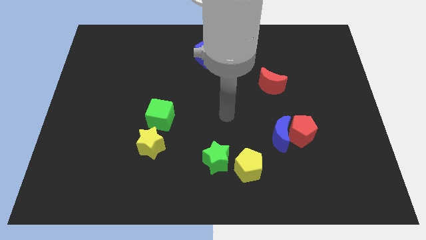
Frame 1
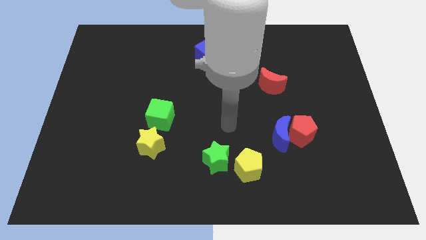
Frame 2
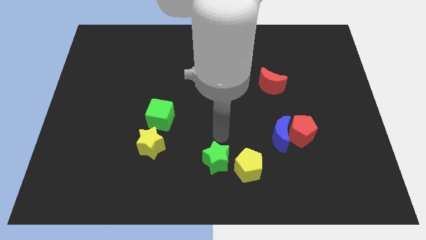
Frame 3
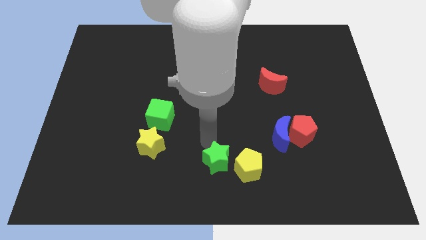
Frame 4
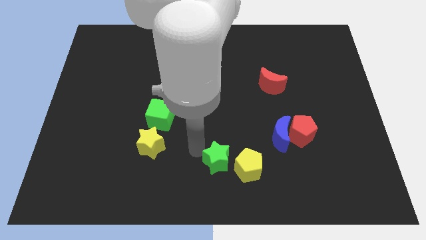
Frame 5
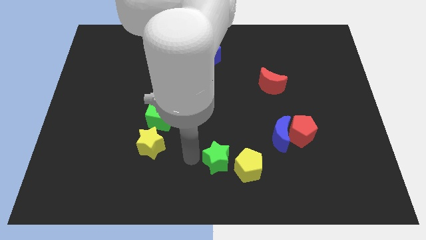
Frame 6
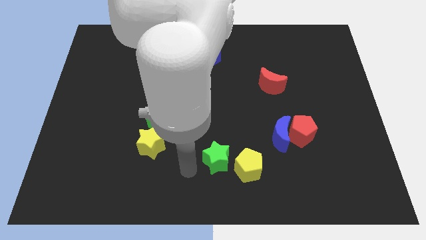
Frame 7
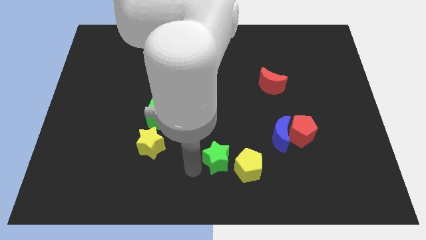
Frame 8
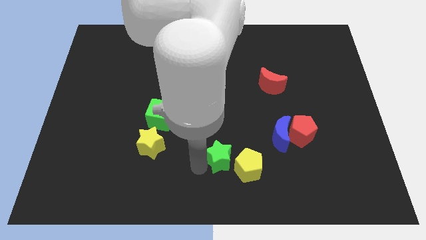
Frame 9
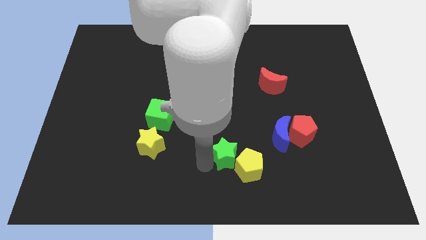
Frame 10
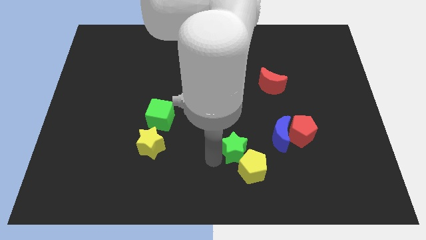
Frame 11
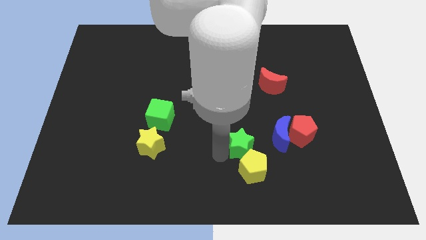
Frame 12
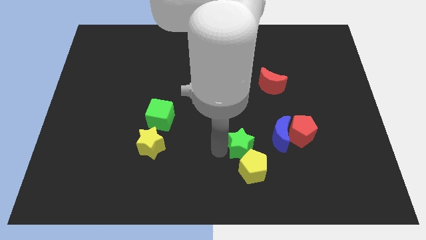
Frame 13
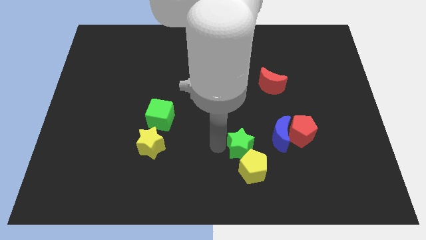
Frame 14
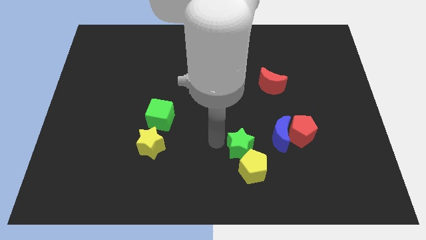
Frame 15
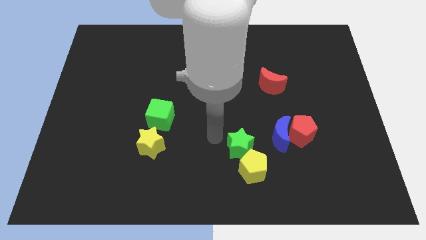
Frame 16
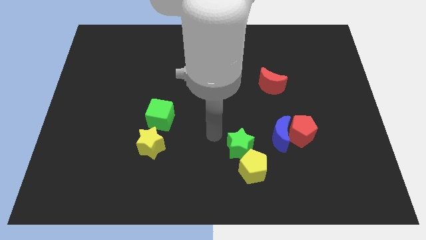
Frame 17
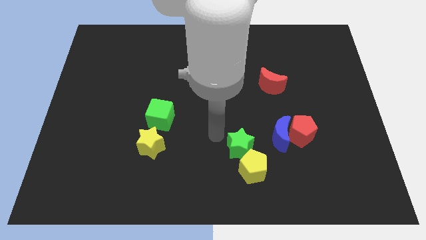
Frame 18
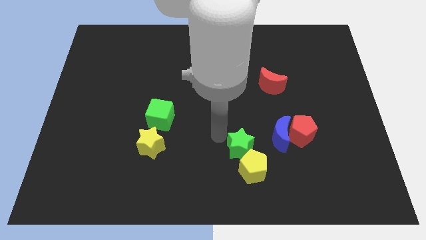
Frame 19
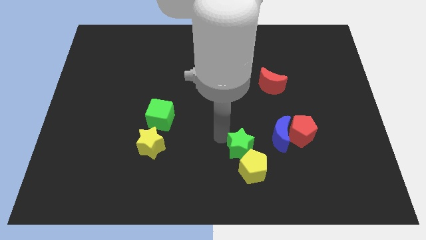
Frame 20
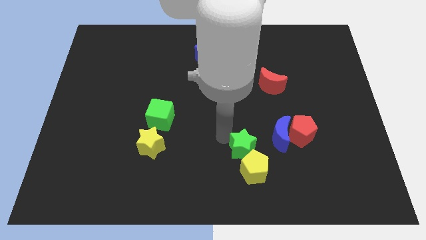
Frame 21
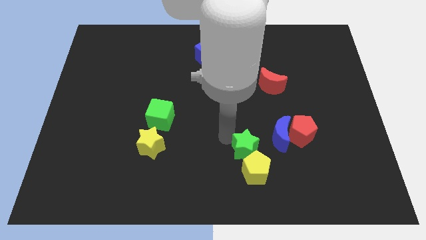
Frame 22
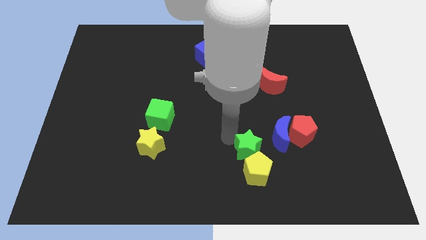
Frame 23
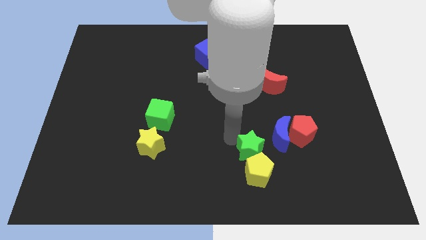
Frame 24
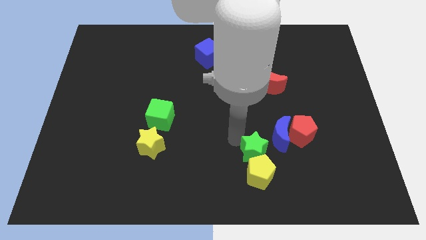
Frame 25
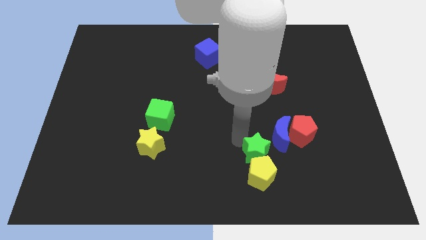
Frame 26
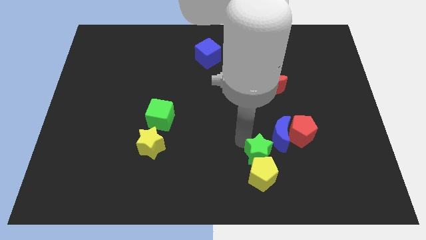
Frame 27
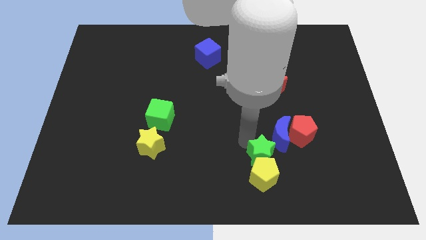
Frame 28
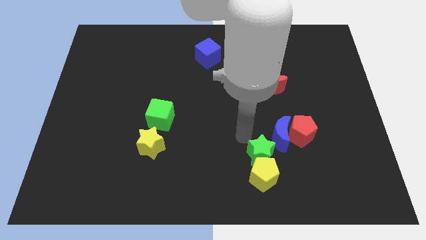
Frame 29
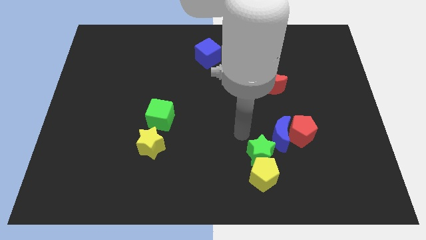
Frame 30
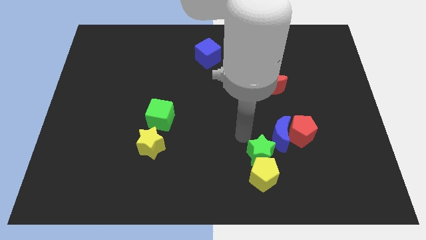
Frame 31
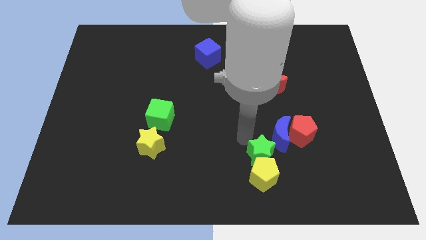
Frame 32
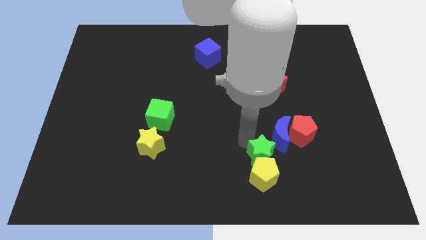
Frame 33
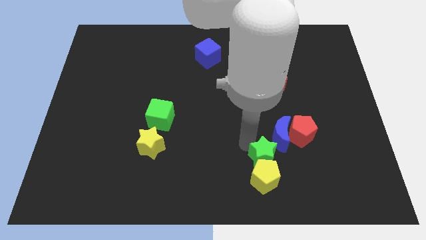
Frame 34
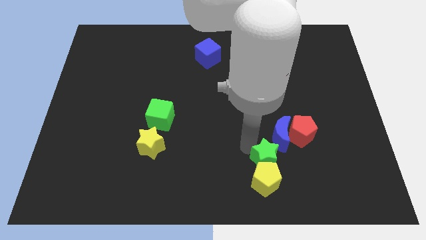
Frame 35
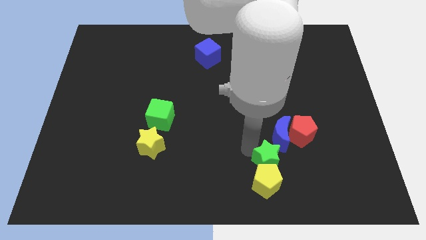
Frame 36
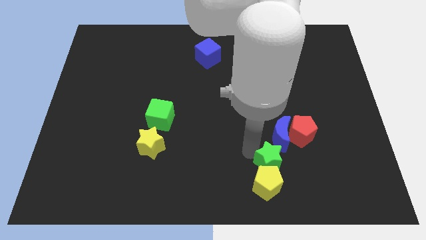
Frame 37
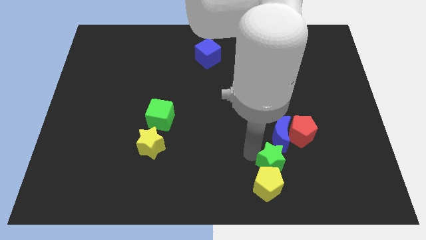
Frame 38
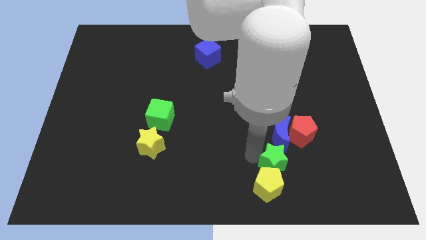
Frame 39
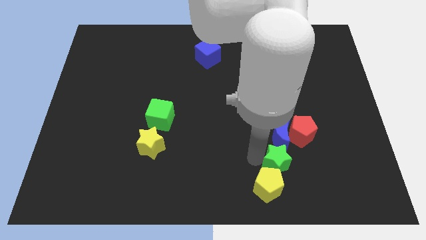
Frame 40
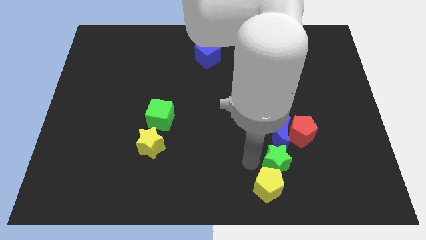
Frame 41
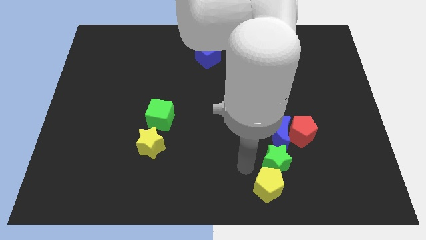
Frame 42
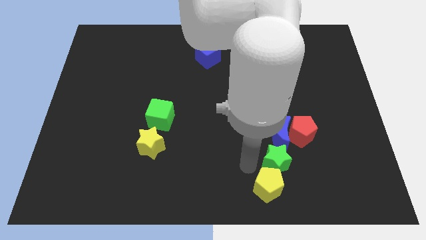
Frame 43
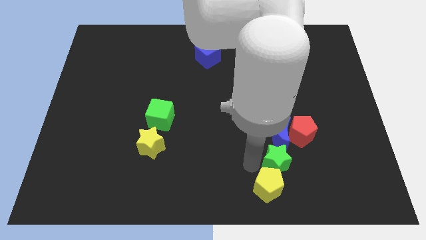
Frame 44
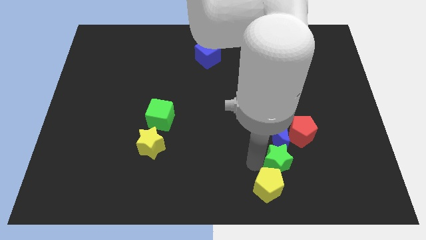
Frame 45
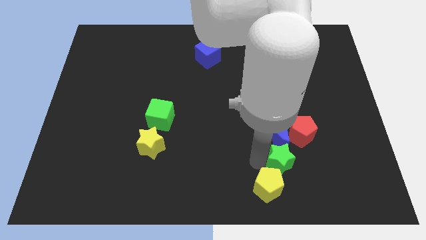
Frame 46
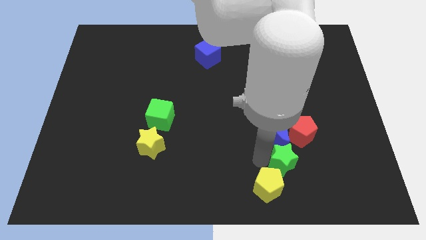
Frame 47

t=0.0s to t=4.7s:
slide the green star to the bottom right side of the blue moon

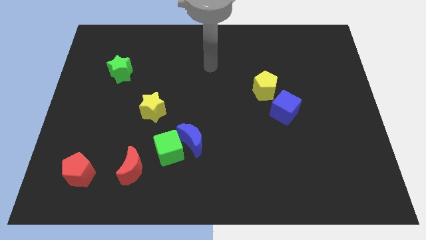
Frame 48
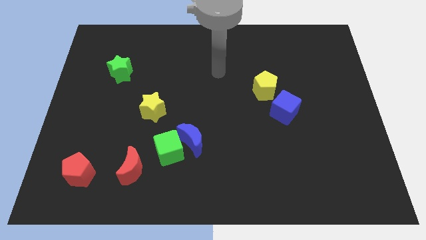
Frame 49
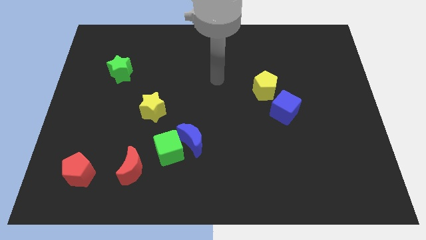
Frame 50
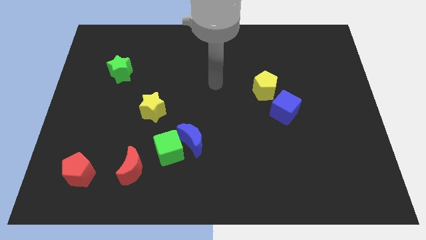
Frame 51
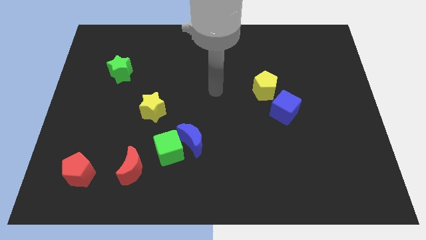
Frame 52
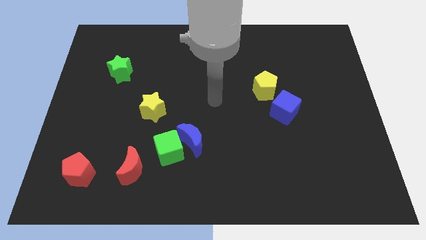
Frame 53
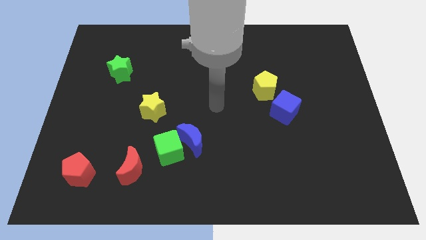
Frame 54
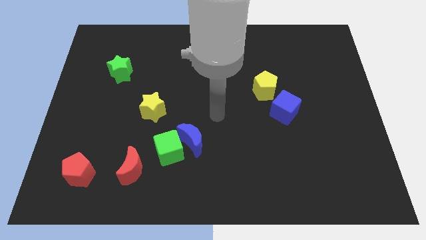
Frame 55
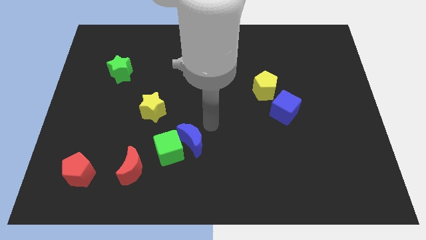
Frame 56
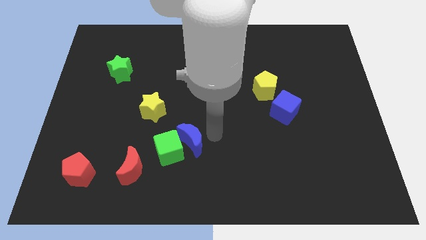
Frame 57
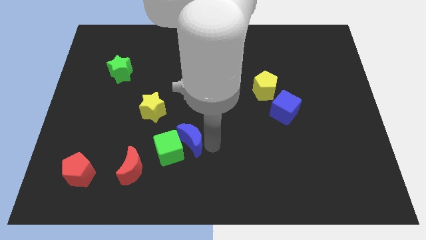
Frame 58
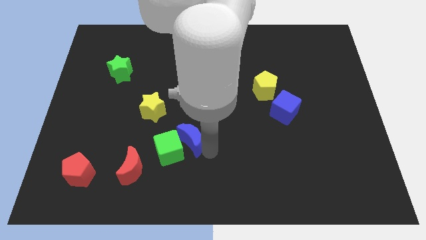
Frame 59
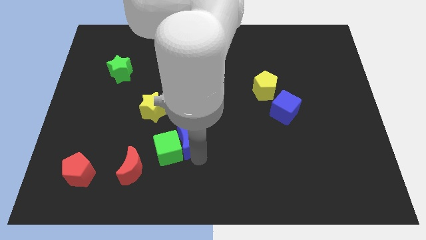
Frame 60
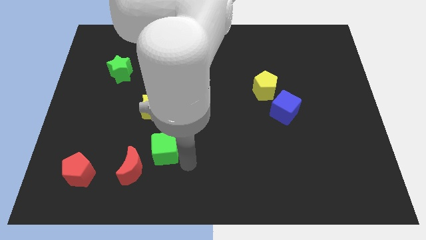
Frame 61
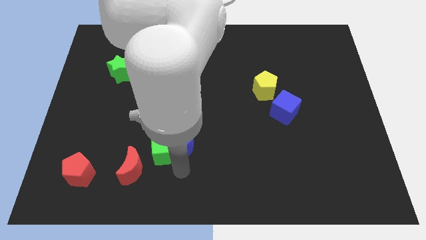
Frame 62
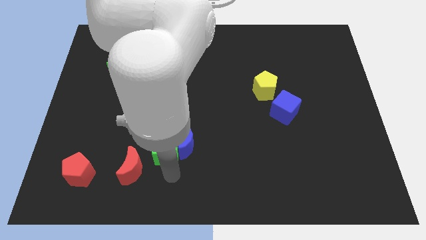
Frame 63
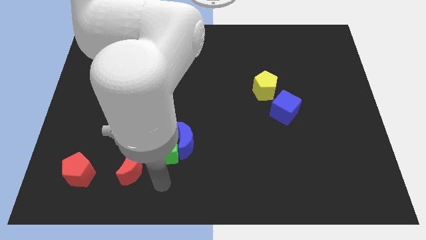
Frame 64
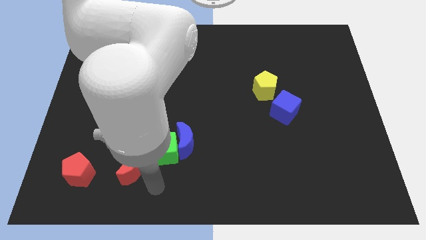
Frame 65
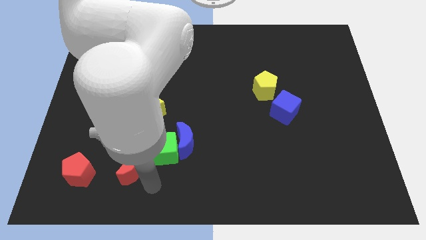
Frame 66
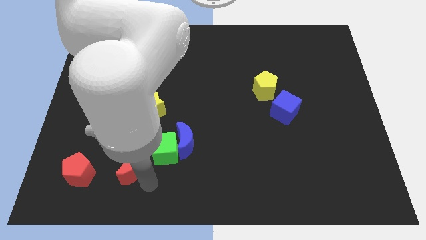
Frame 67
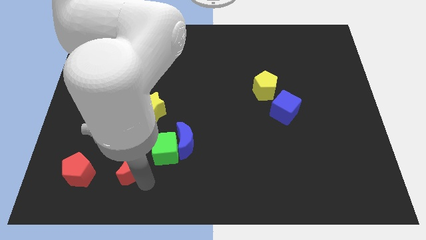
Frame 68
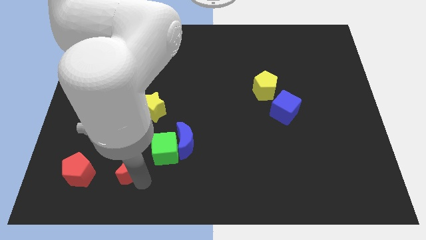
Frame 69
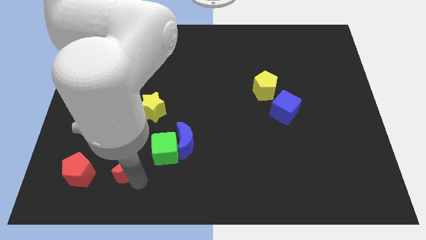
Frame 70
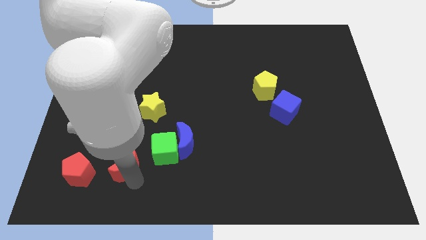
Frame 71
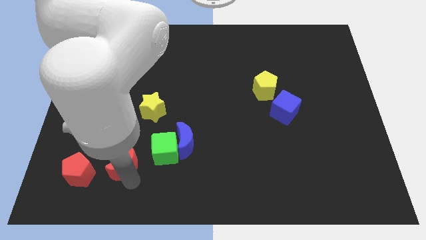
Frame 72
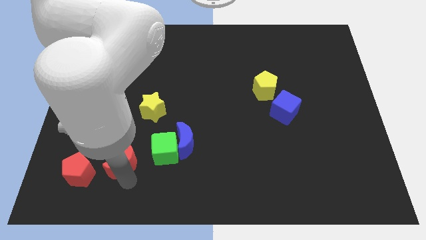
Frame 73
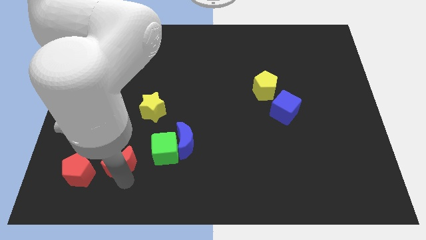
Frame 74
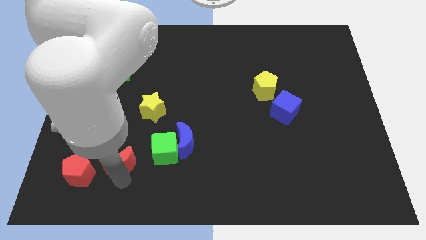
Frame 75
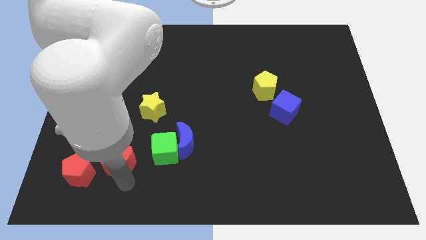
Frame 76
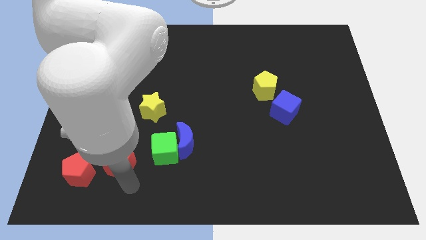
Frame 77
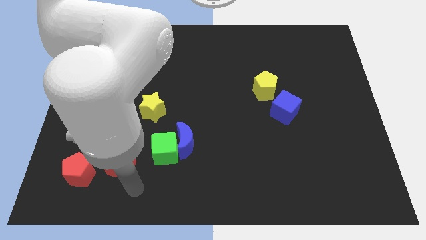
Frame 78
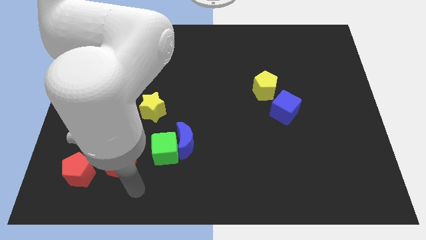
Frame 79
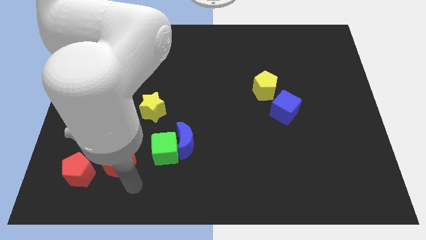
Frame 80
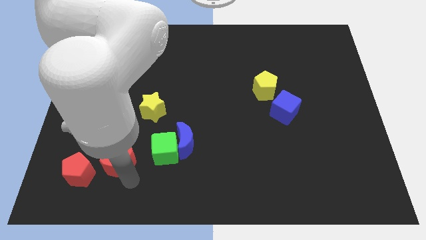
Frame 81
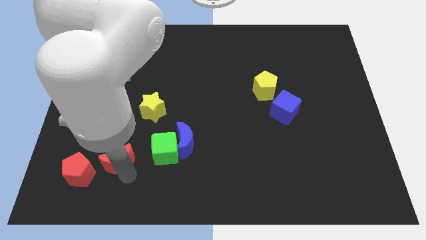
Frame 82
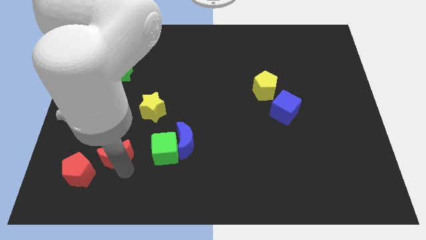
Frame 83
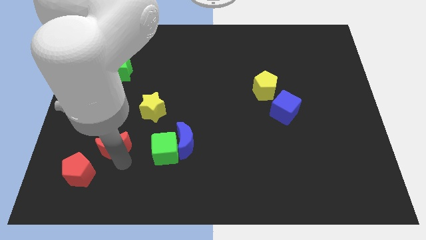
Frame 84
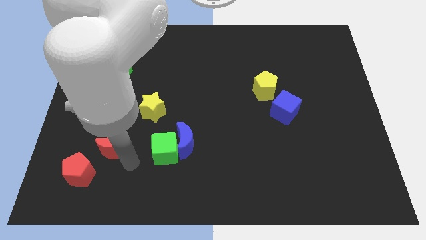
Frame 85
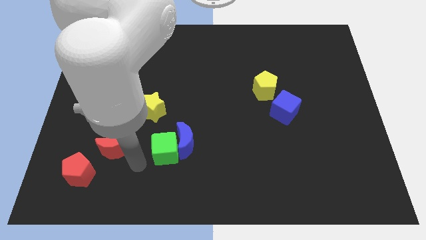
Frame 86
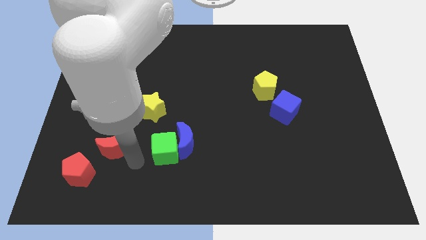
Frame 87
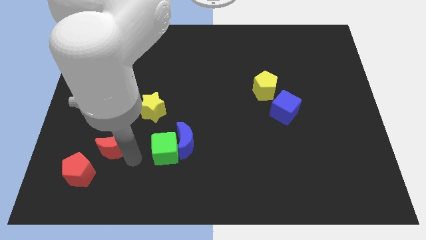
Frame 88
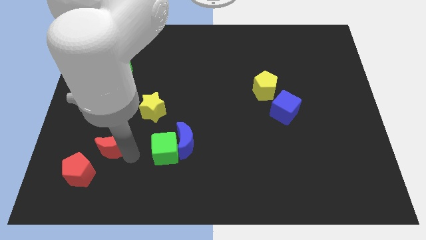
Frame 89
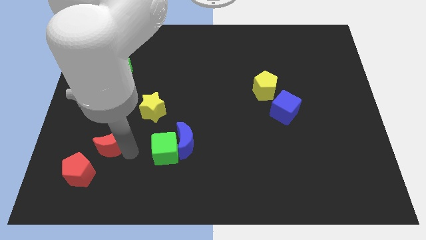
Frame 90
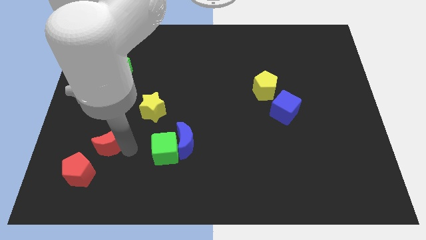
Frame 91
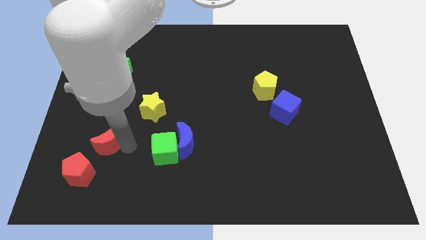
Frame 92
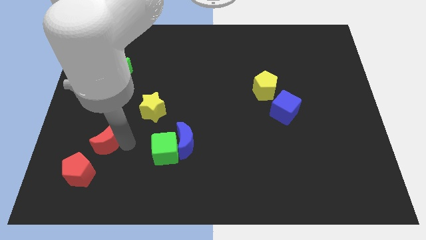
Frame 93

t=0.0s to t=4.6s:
move the red moon to the top side of the red pentagon
